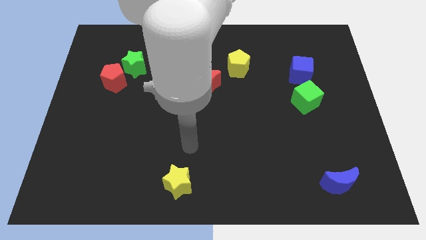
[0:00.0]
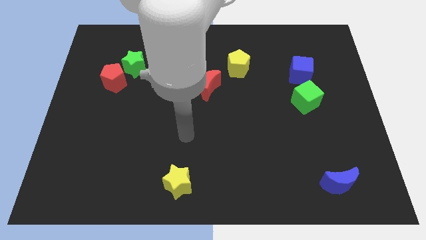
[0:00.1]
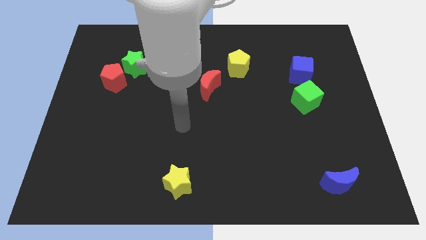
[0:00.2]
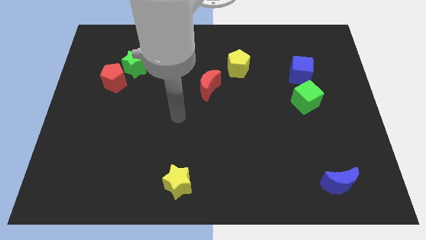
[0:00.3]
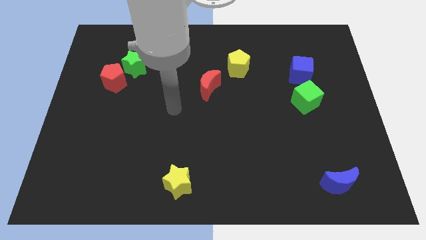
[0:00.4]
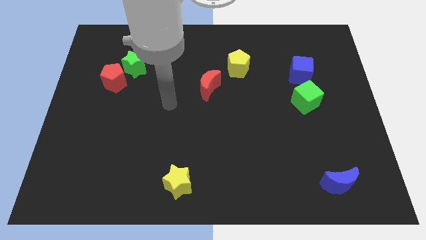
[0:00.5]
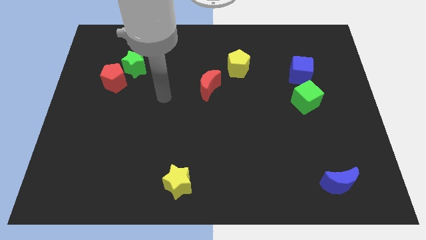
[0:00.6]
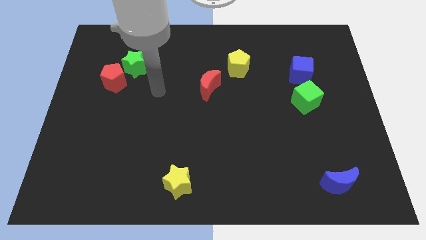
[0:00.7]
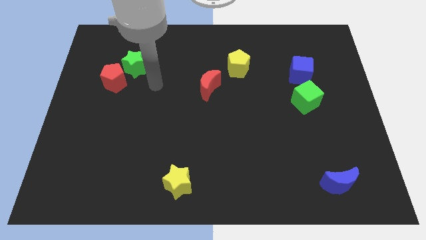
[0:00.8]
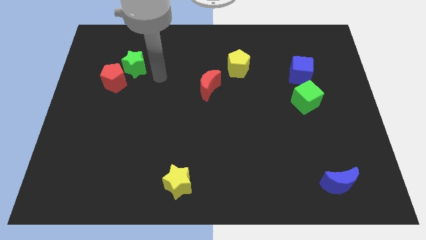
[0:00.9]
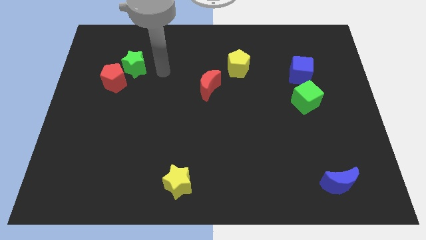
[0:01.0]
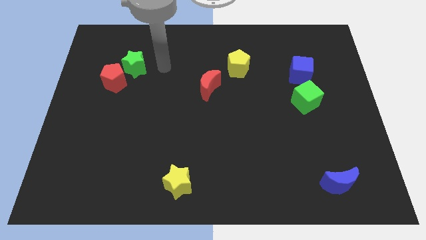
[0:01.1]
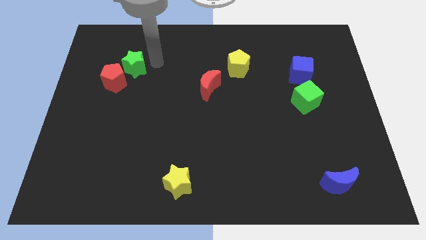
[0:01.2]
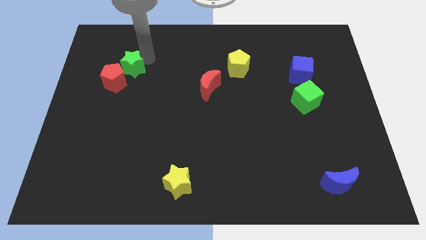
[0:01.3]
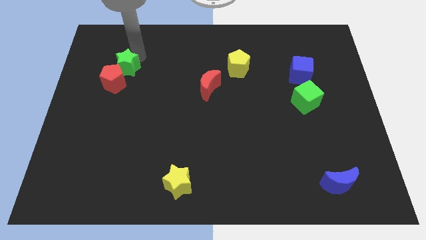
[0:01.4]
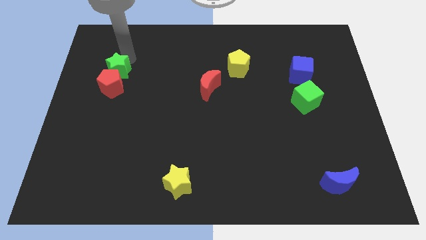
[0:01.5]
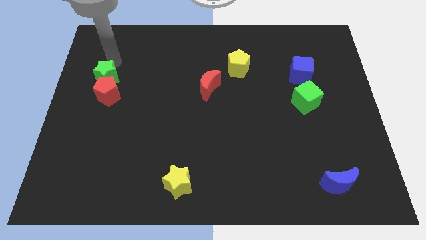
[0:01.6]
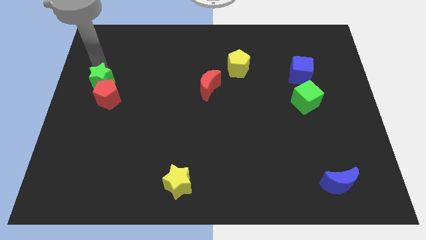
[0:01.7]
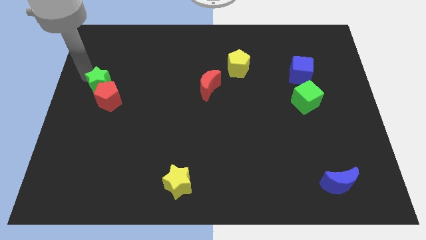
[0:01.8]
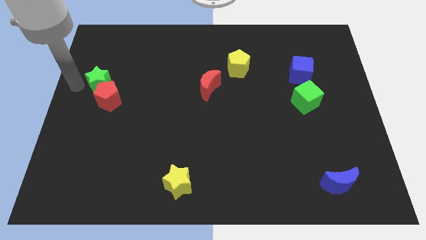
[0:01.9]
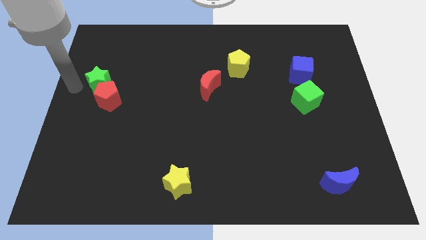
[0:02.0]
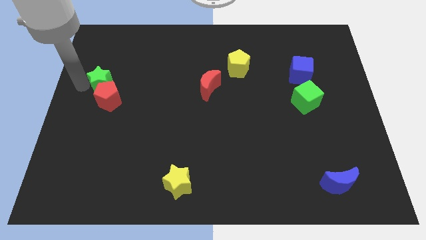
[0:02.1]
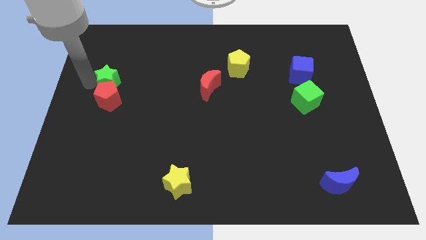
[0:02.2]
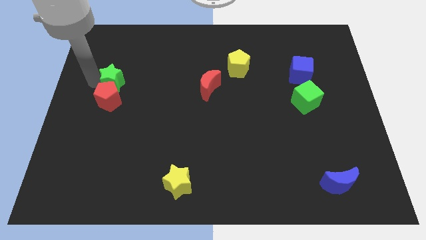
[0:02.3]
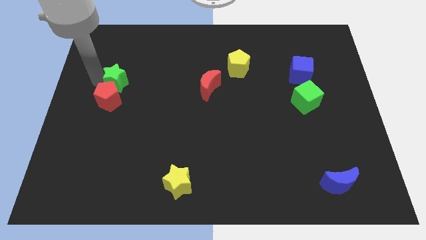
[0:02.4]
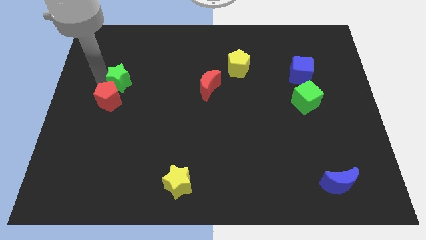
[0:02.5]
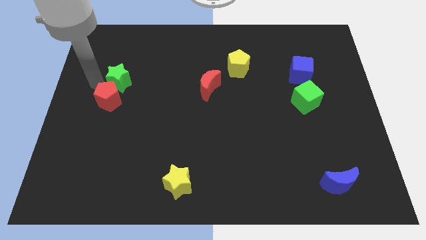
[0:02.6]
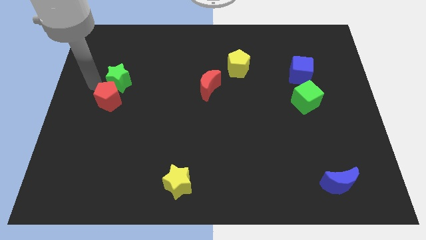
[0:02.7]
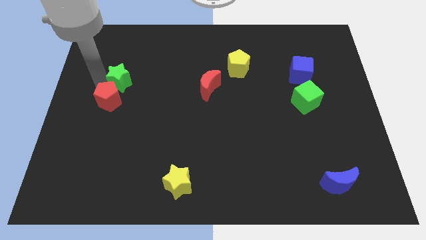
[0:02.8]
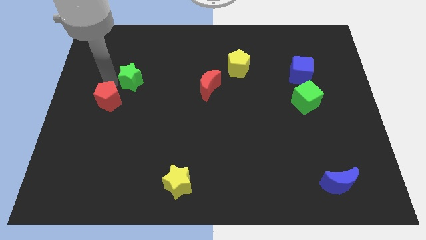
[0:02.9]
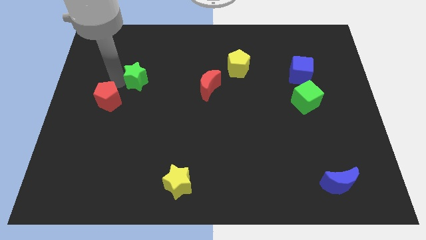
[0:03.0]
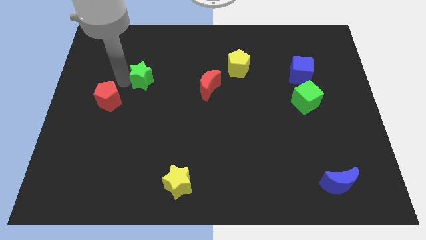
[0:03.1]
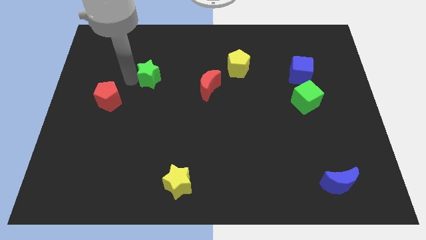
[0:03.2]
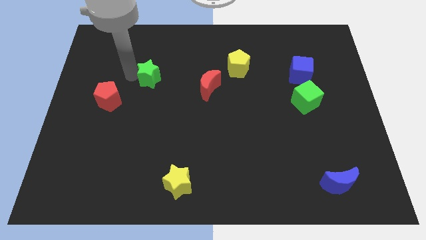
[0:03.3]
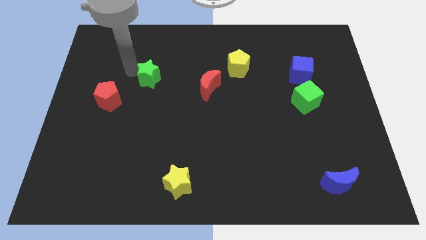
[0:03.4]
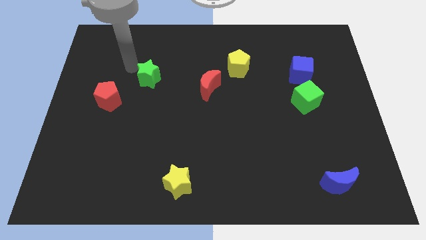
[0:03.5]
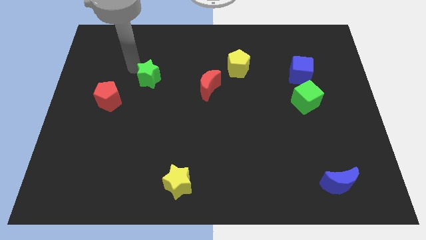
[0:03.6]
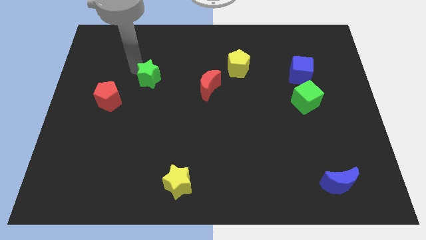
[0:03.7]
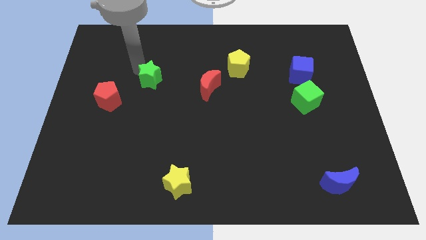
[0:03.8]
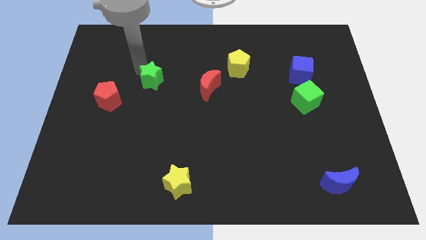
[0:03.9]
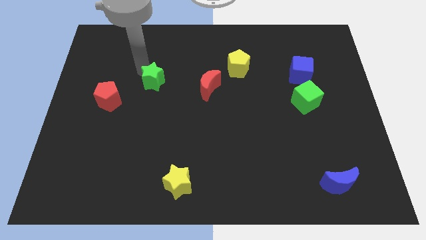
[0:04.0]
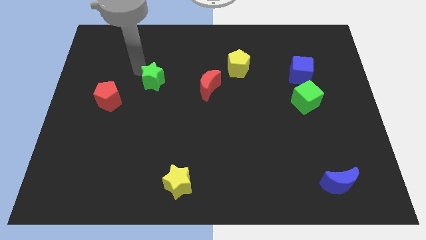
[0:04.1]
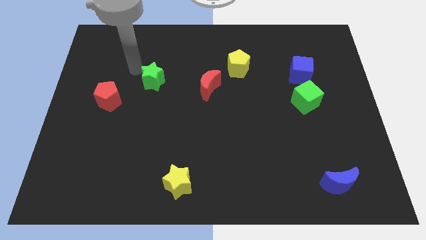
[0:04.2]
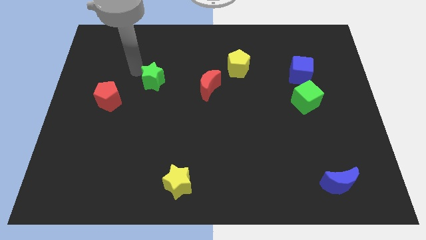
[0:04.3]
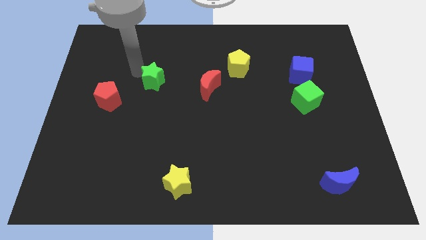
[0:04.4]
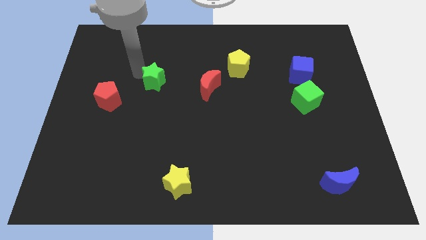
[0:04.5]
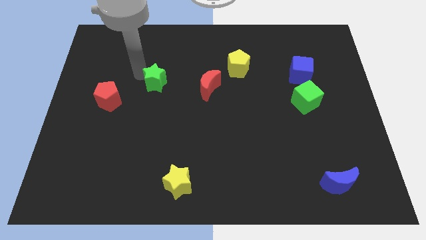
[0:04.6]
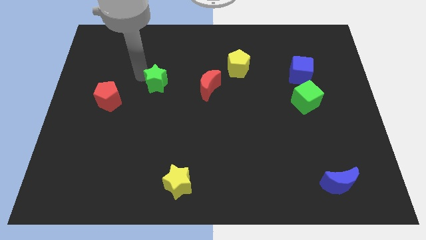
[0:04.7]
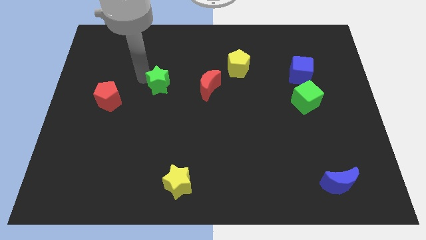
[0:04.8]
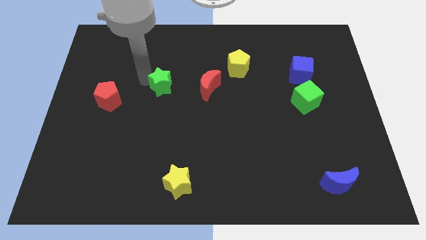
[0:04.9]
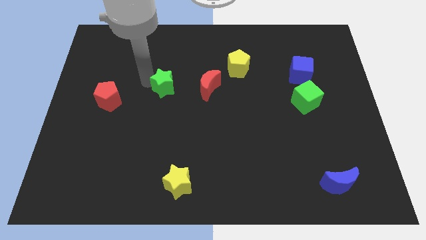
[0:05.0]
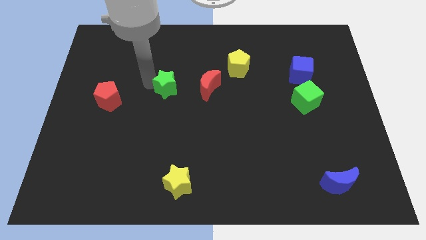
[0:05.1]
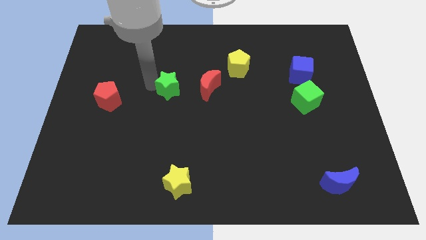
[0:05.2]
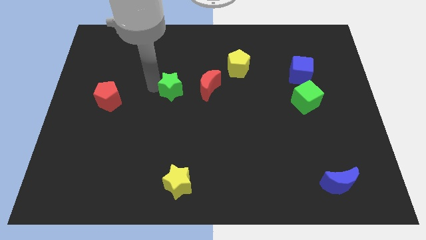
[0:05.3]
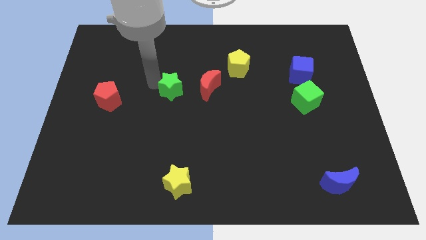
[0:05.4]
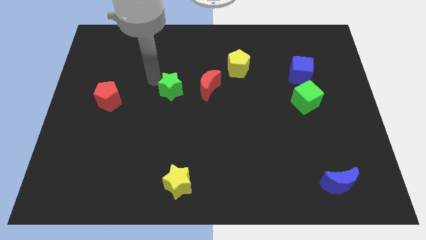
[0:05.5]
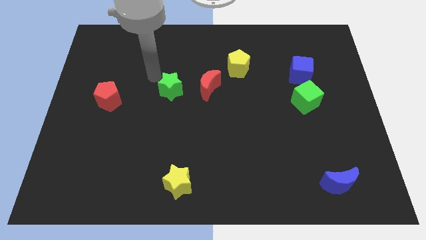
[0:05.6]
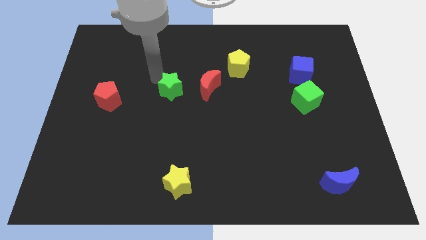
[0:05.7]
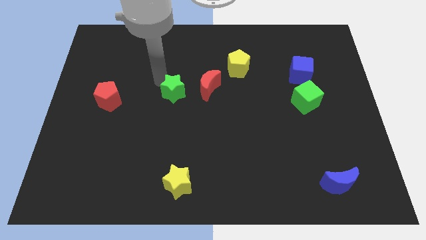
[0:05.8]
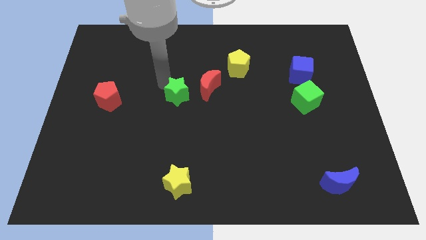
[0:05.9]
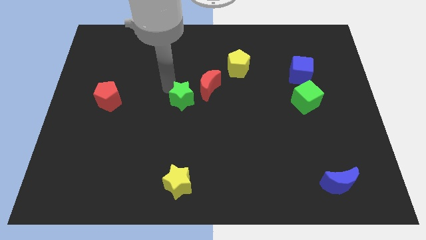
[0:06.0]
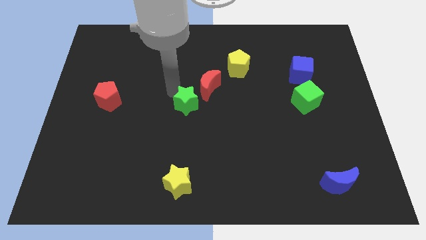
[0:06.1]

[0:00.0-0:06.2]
move the green star to the bottom of the red moon
